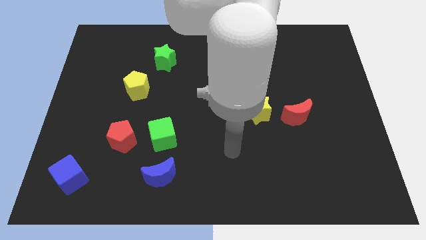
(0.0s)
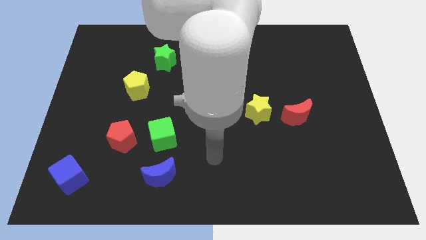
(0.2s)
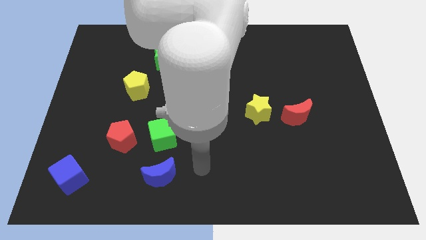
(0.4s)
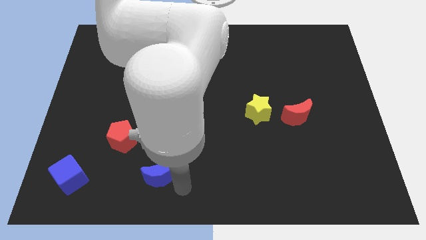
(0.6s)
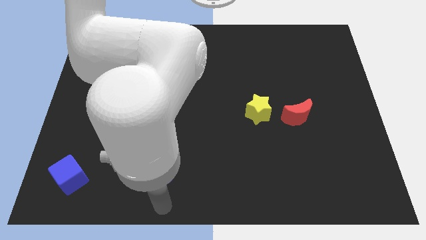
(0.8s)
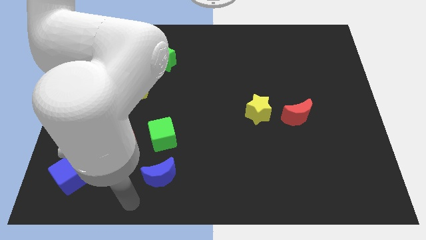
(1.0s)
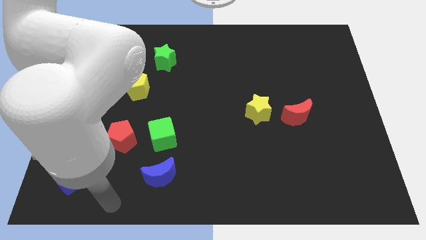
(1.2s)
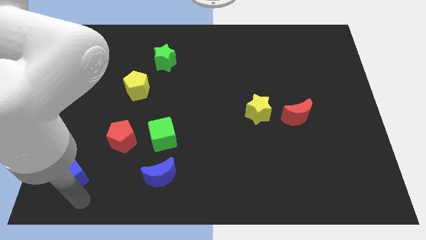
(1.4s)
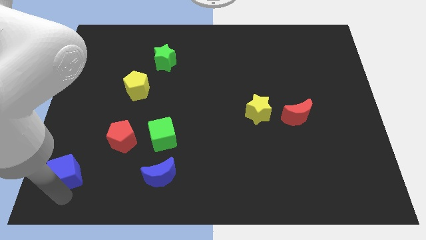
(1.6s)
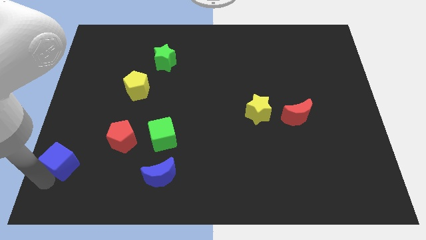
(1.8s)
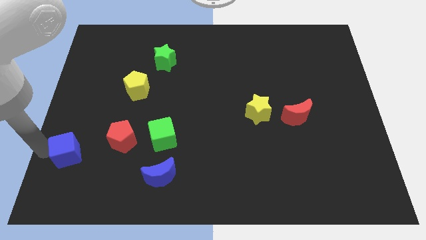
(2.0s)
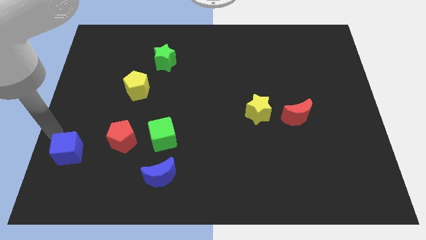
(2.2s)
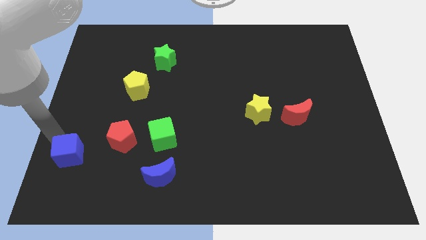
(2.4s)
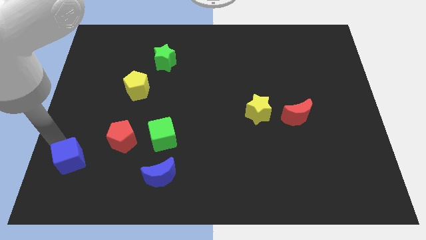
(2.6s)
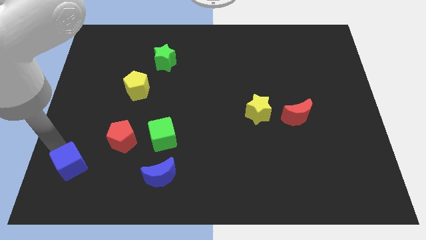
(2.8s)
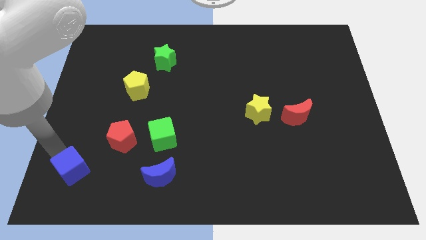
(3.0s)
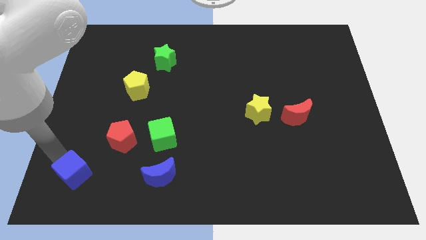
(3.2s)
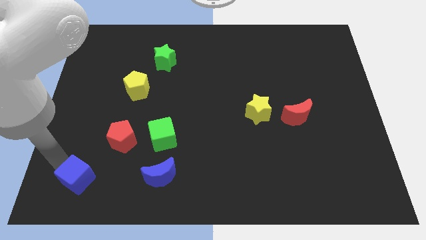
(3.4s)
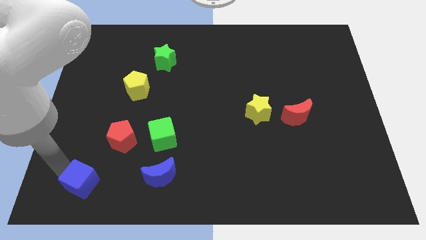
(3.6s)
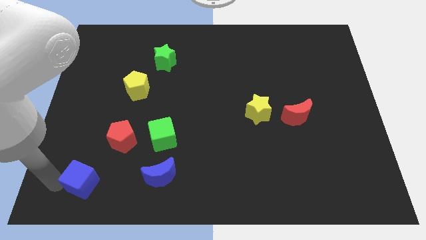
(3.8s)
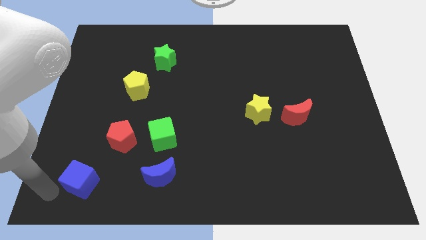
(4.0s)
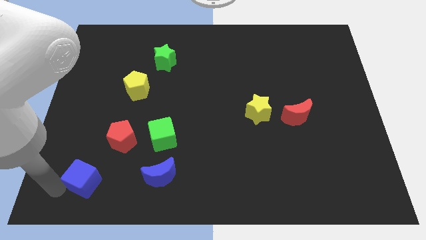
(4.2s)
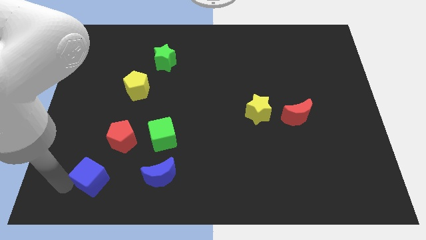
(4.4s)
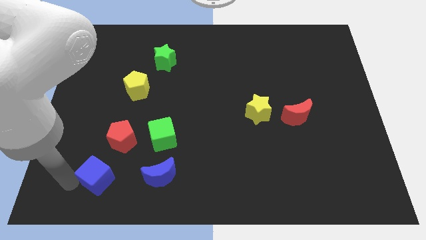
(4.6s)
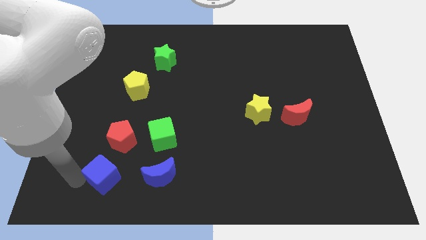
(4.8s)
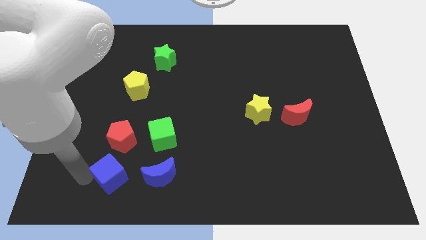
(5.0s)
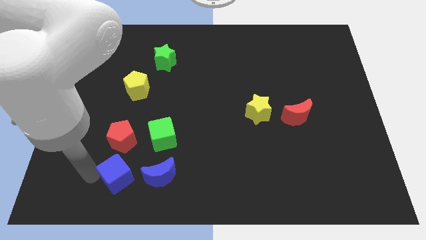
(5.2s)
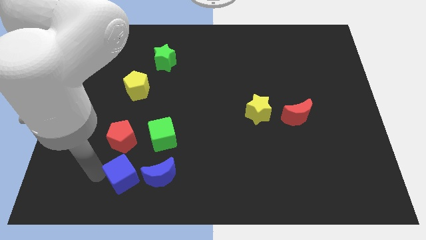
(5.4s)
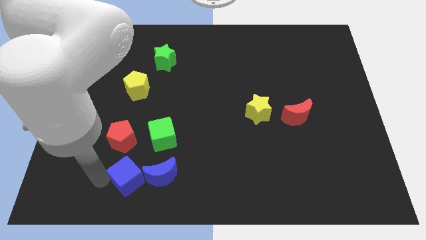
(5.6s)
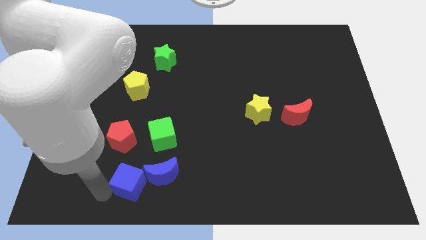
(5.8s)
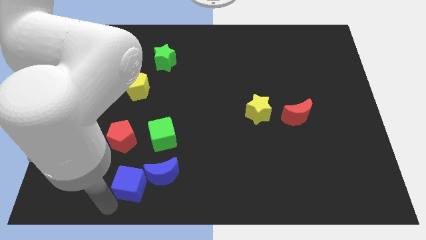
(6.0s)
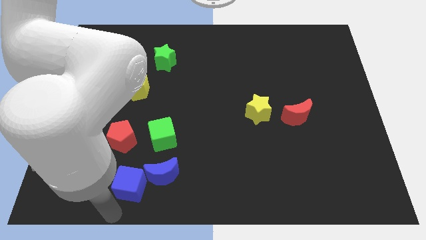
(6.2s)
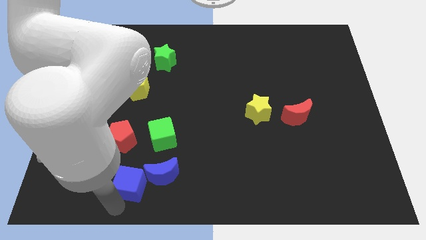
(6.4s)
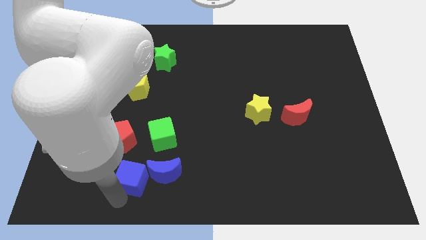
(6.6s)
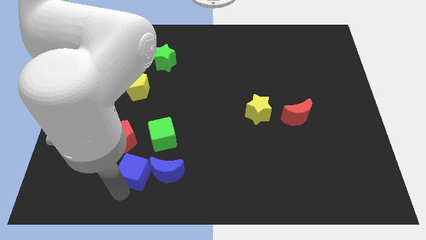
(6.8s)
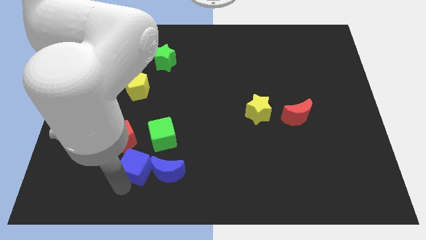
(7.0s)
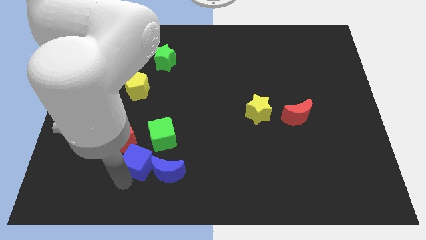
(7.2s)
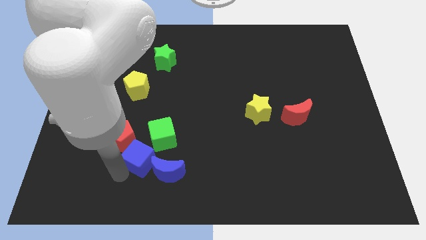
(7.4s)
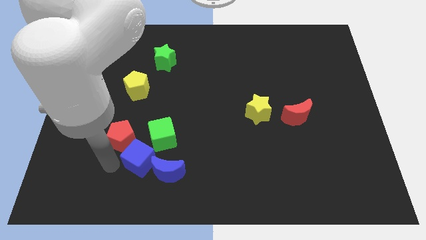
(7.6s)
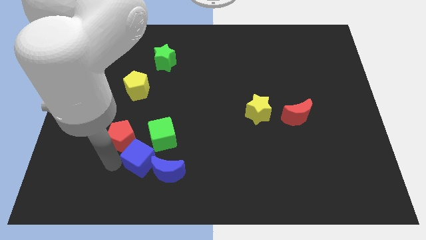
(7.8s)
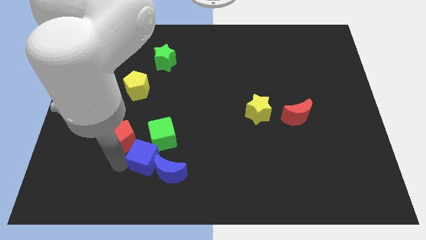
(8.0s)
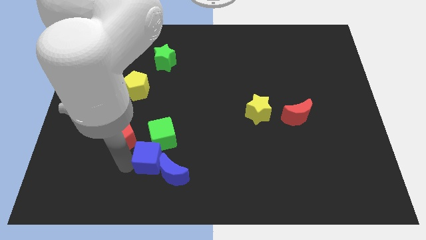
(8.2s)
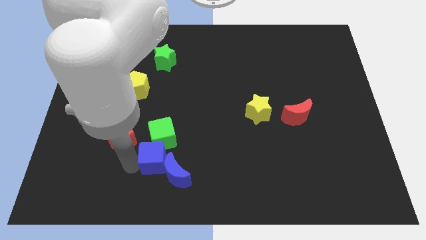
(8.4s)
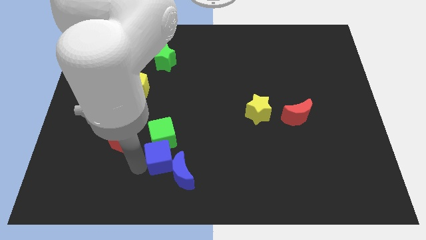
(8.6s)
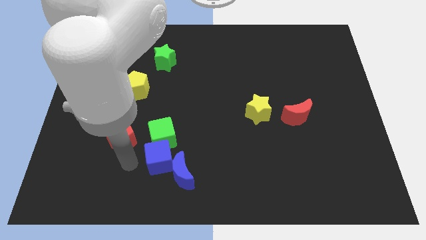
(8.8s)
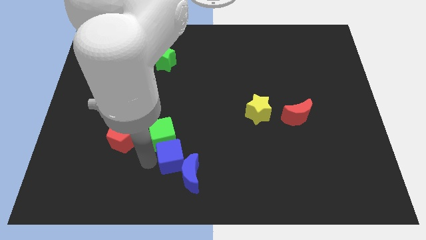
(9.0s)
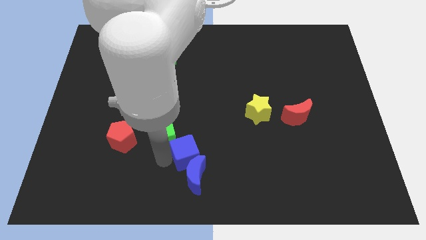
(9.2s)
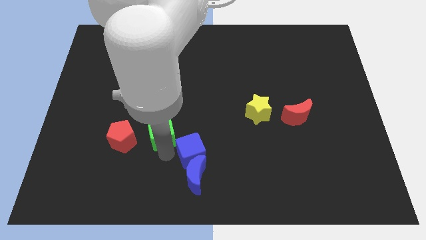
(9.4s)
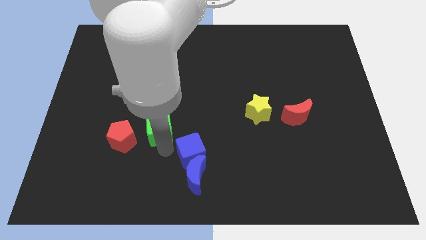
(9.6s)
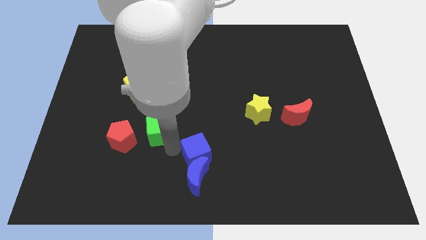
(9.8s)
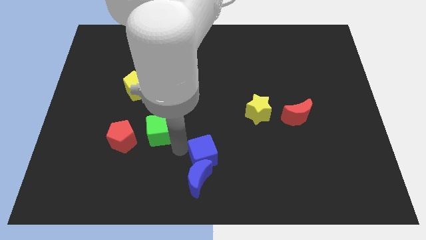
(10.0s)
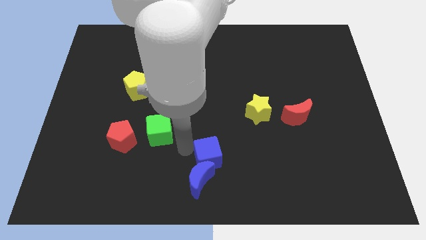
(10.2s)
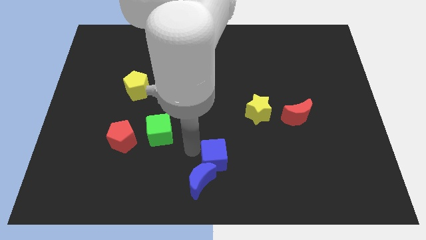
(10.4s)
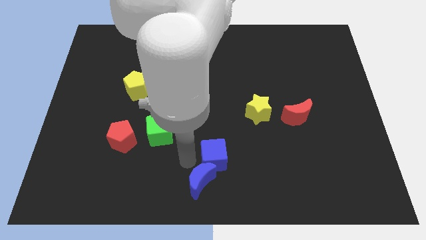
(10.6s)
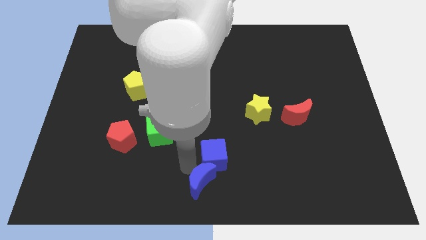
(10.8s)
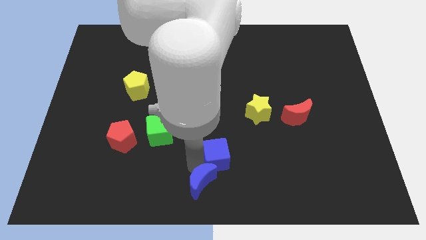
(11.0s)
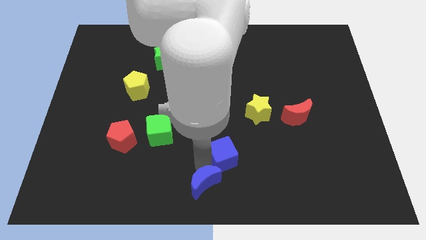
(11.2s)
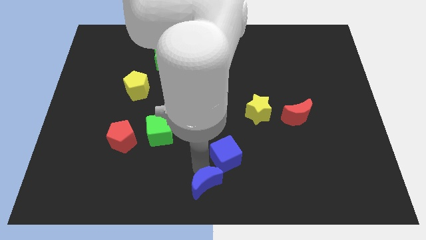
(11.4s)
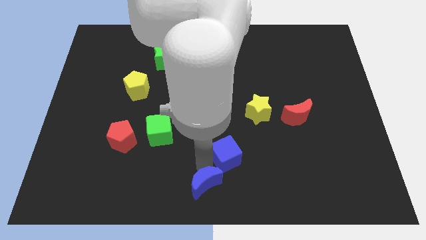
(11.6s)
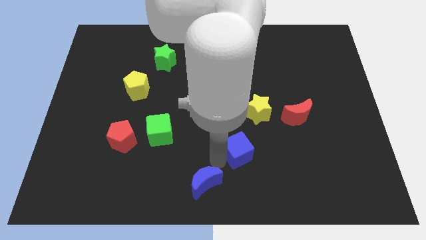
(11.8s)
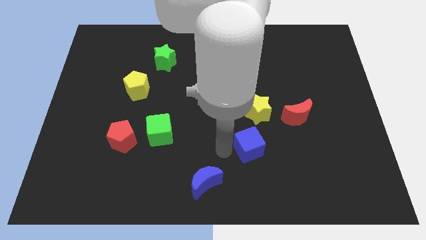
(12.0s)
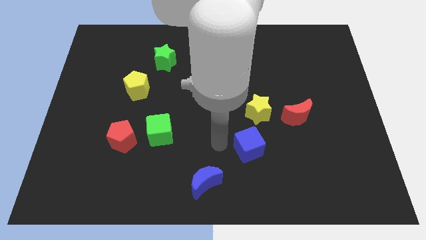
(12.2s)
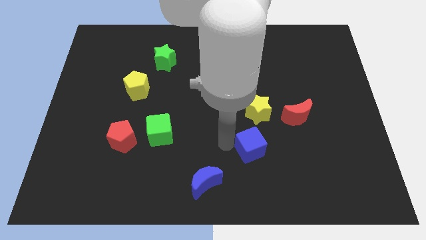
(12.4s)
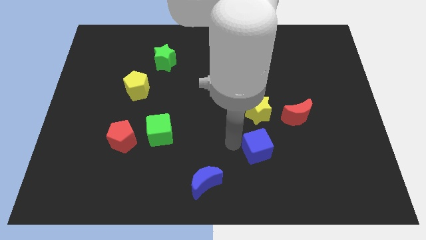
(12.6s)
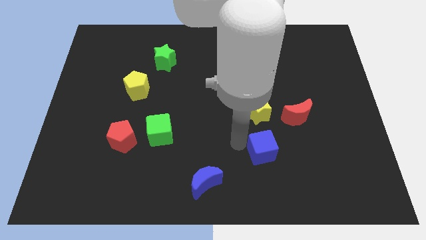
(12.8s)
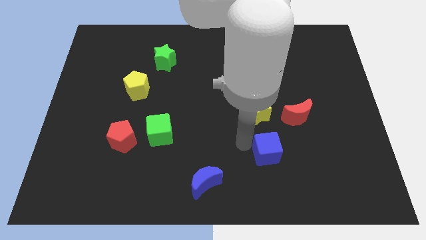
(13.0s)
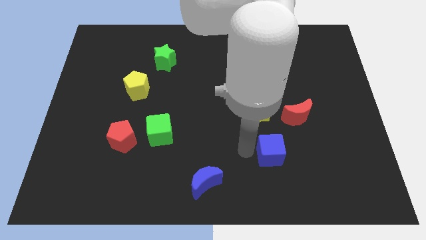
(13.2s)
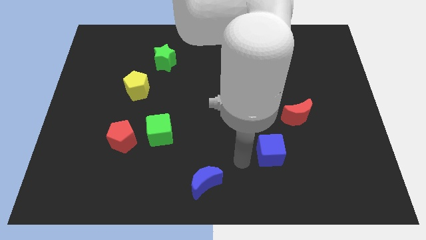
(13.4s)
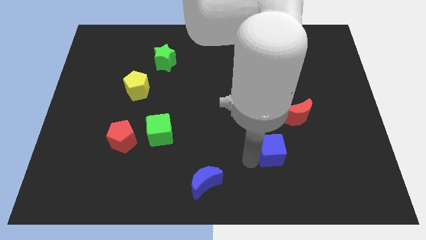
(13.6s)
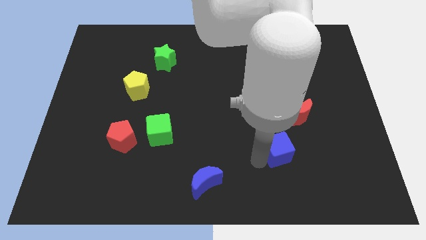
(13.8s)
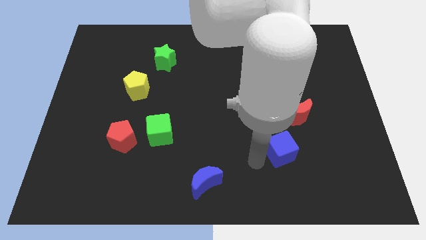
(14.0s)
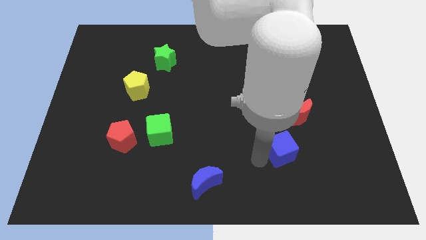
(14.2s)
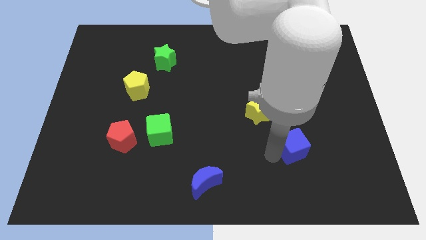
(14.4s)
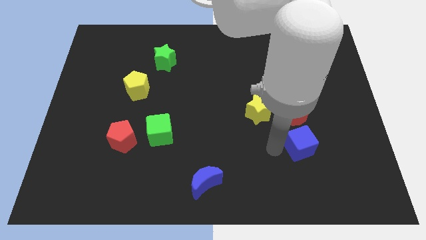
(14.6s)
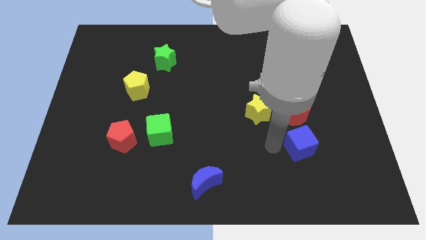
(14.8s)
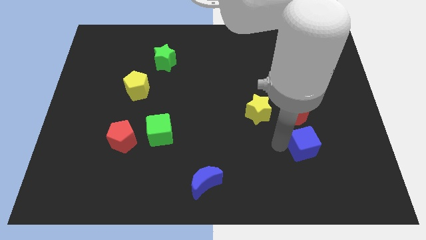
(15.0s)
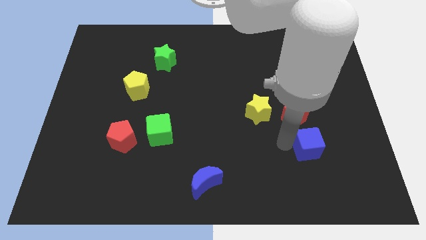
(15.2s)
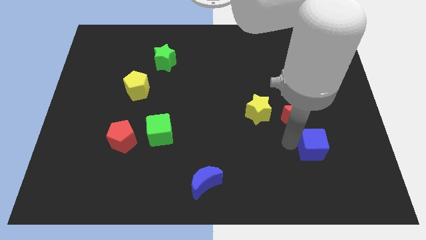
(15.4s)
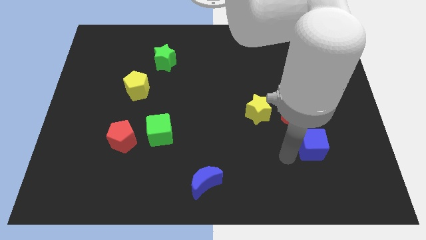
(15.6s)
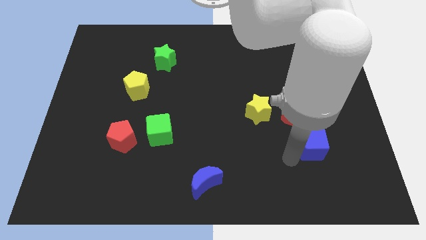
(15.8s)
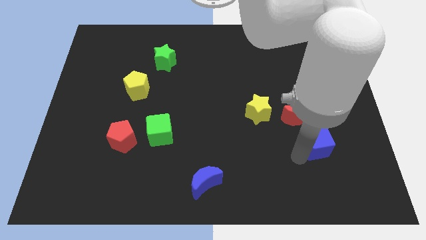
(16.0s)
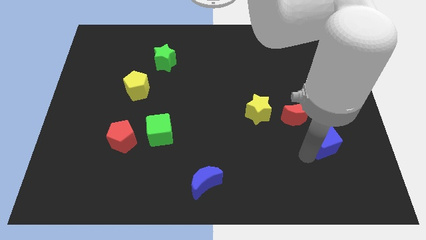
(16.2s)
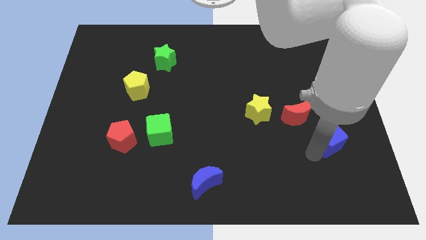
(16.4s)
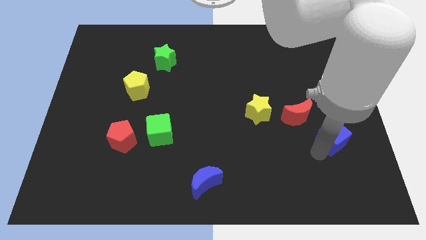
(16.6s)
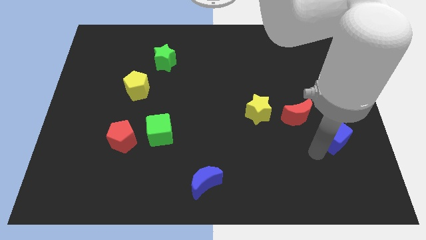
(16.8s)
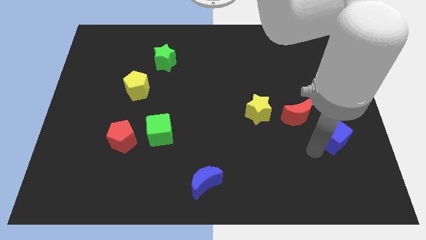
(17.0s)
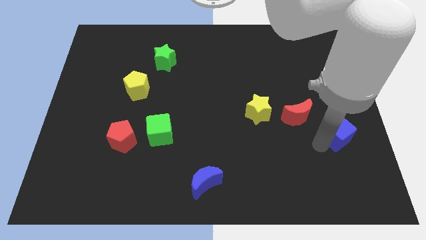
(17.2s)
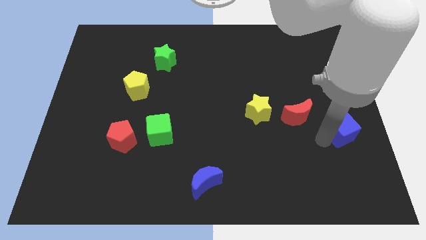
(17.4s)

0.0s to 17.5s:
slide the blue cube to the right side of the board
